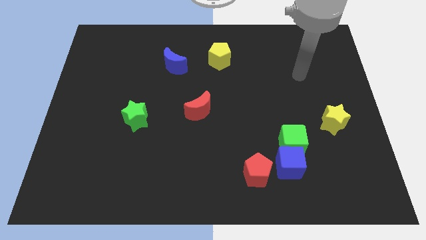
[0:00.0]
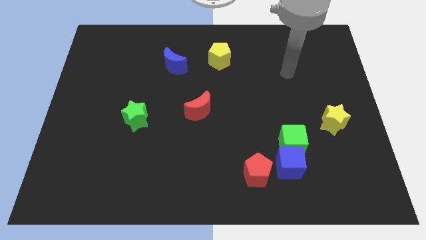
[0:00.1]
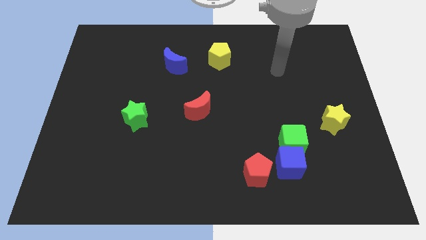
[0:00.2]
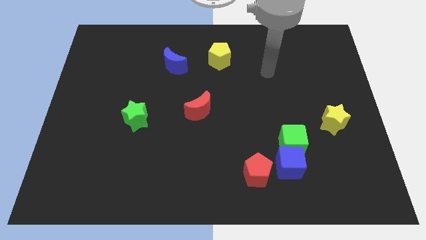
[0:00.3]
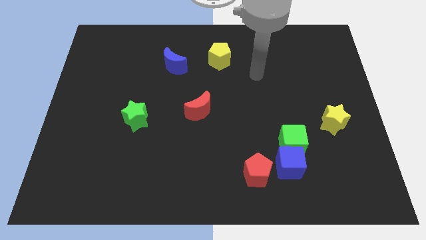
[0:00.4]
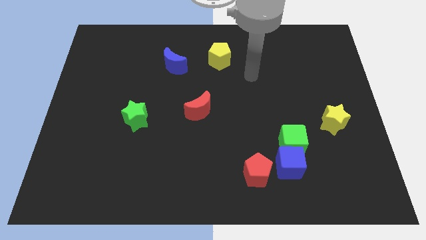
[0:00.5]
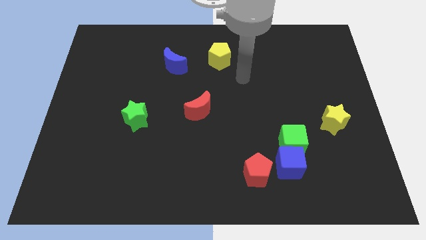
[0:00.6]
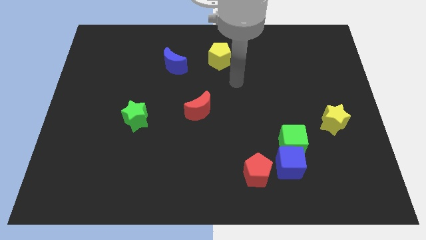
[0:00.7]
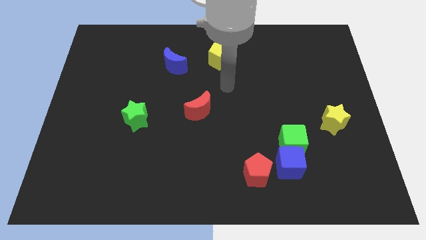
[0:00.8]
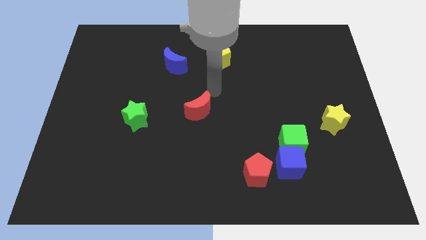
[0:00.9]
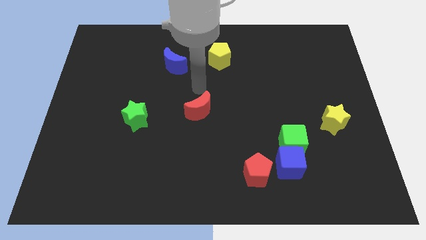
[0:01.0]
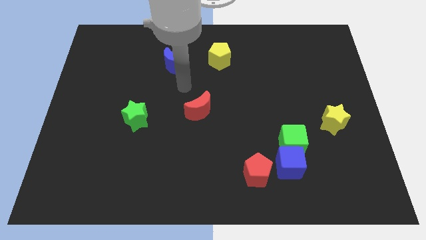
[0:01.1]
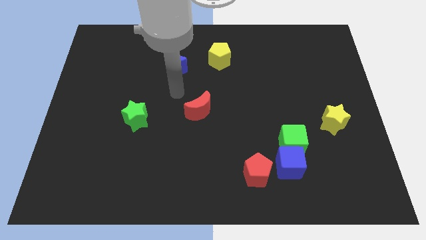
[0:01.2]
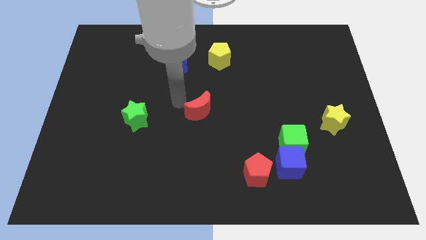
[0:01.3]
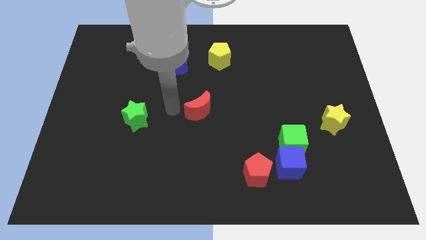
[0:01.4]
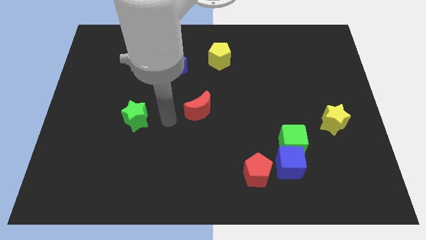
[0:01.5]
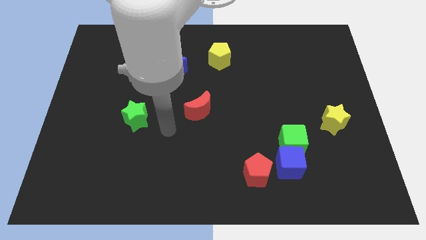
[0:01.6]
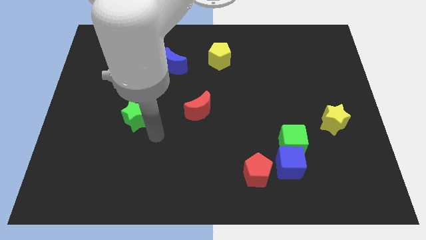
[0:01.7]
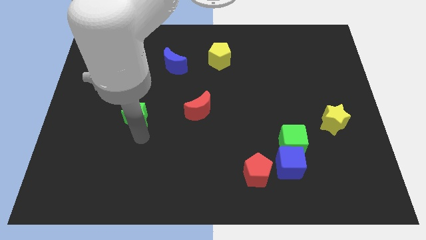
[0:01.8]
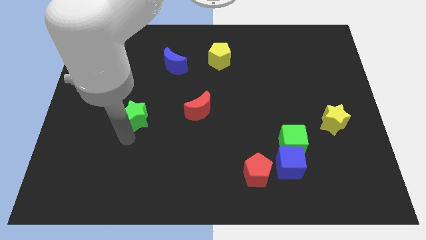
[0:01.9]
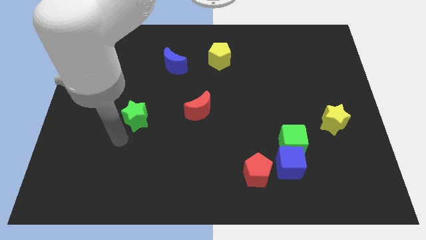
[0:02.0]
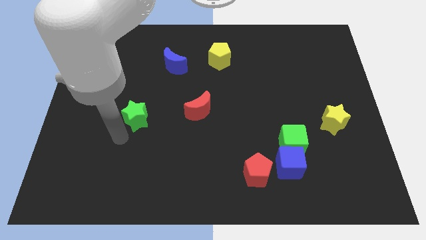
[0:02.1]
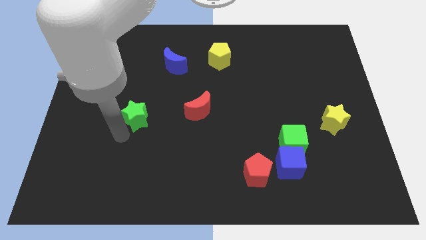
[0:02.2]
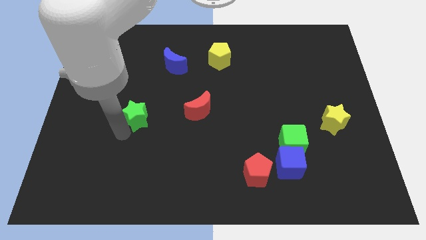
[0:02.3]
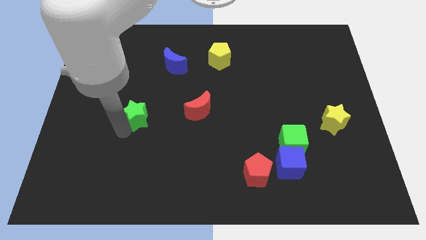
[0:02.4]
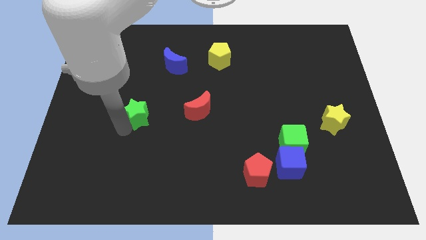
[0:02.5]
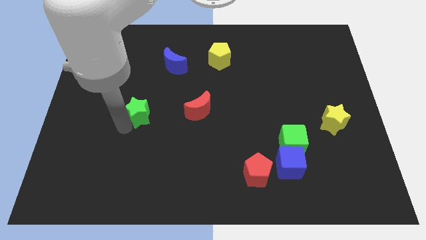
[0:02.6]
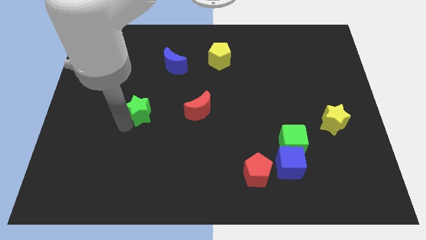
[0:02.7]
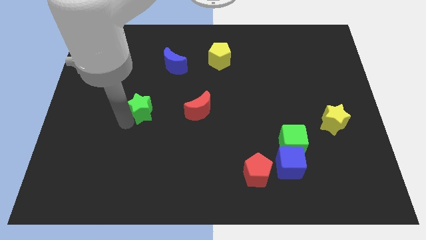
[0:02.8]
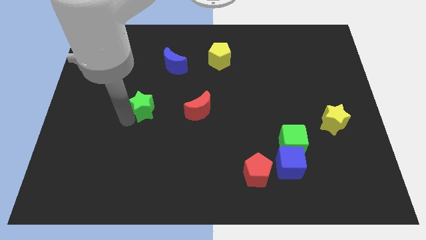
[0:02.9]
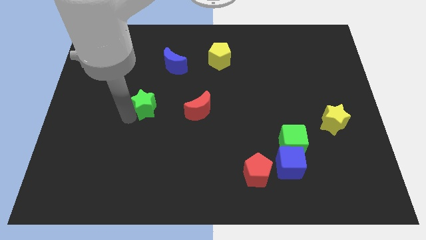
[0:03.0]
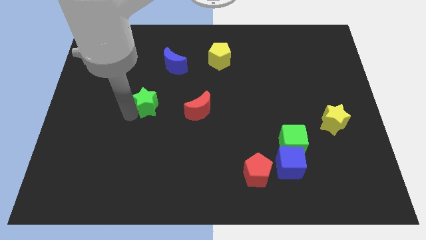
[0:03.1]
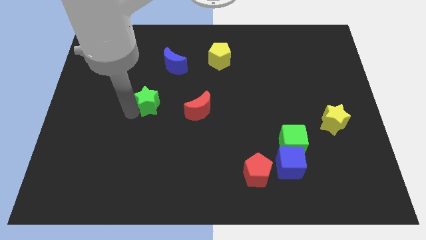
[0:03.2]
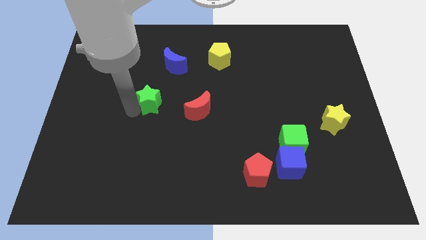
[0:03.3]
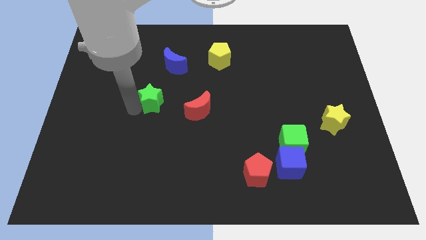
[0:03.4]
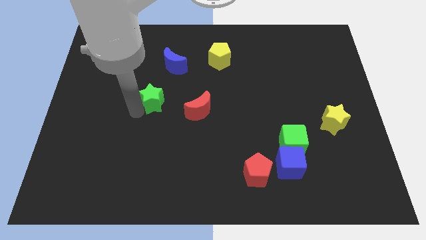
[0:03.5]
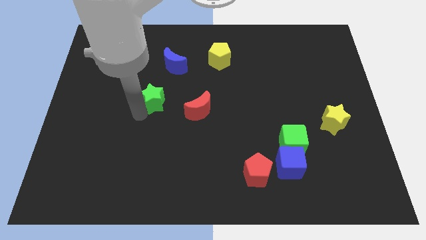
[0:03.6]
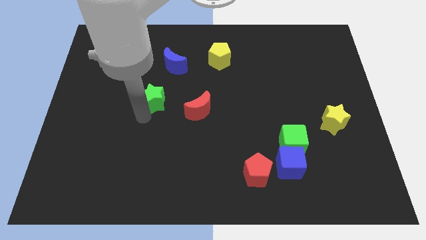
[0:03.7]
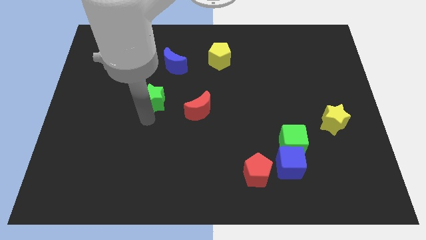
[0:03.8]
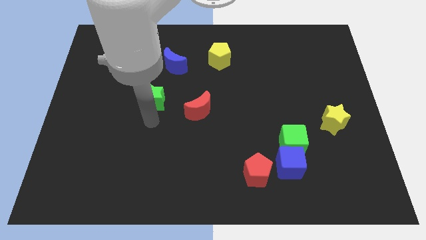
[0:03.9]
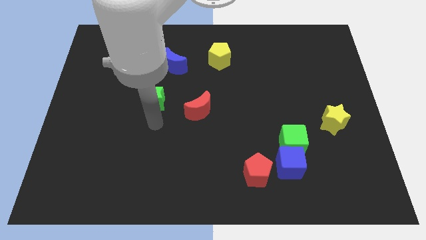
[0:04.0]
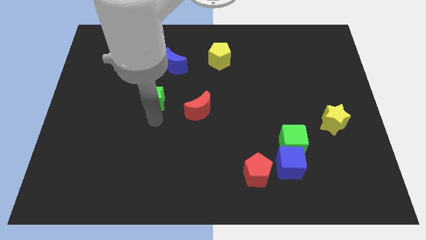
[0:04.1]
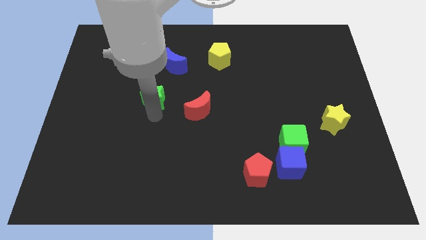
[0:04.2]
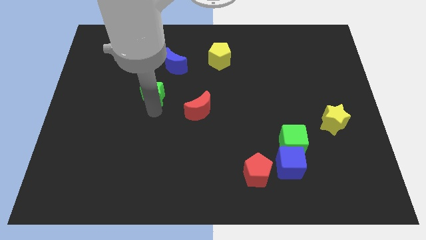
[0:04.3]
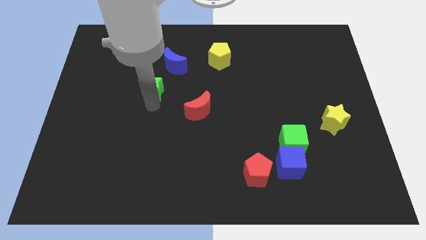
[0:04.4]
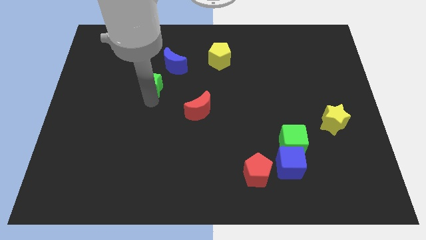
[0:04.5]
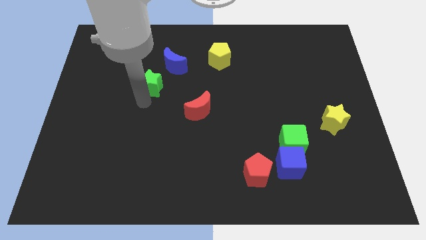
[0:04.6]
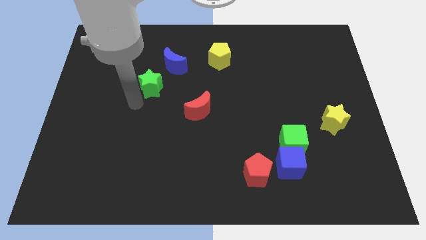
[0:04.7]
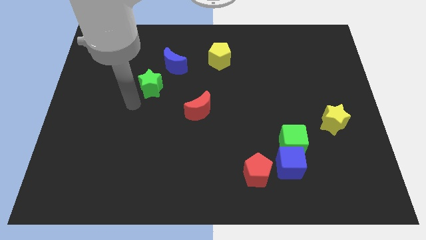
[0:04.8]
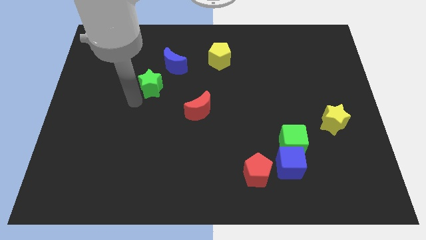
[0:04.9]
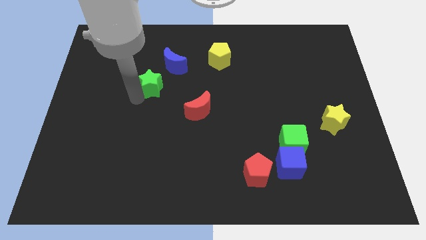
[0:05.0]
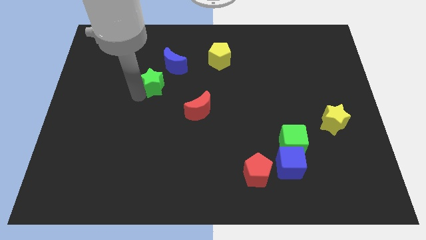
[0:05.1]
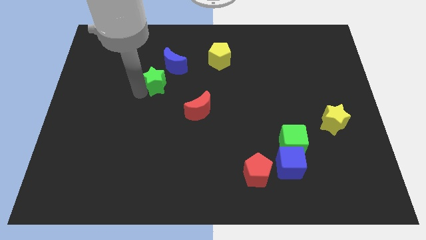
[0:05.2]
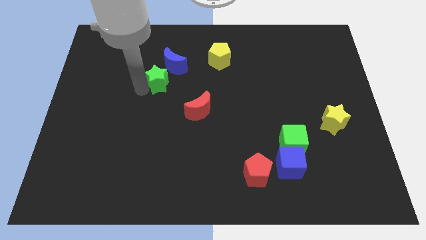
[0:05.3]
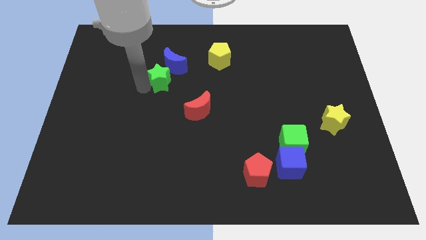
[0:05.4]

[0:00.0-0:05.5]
push the green star close to the blue moon

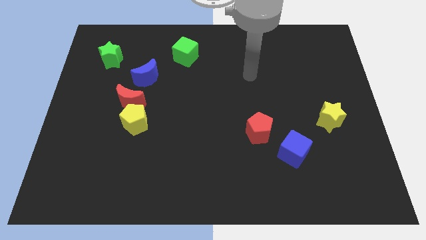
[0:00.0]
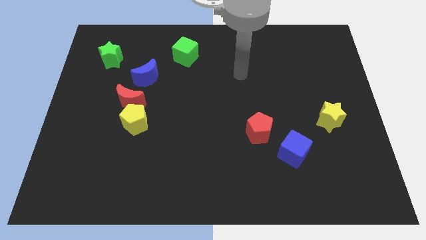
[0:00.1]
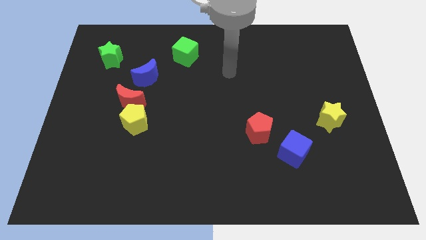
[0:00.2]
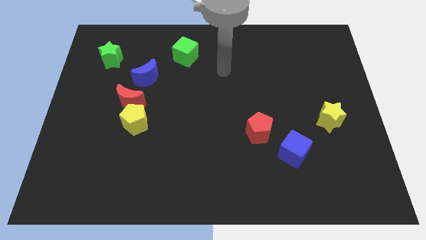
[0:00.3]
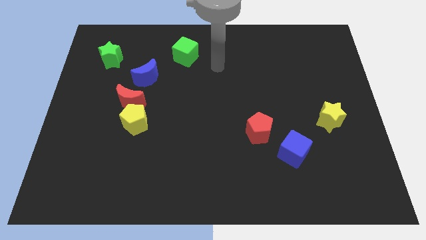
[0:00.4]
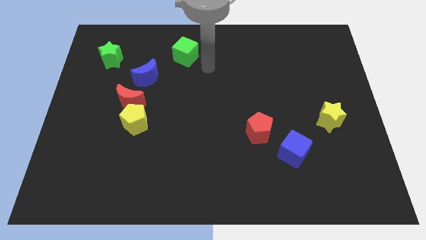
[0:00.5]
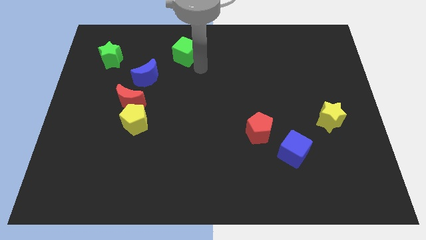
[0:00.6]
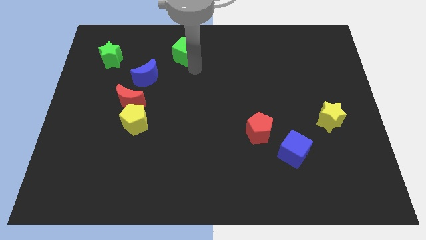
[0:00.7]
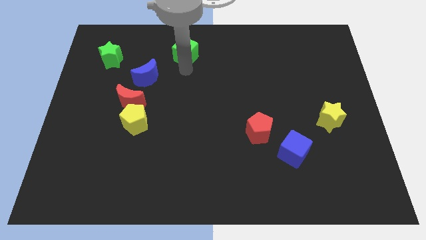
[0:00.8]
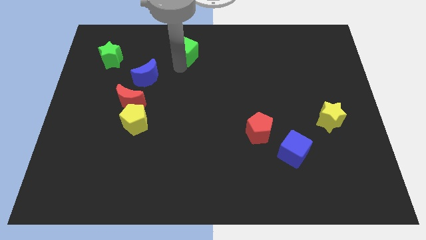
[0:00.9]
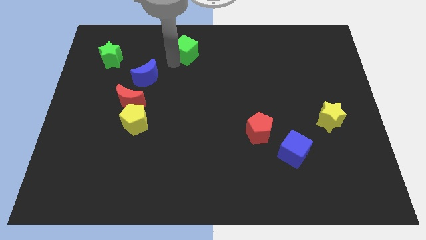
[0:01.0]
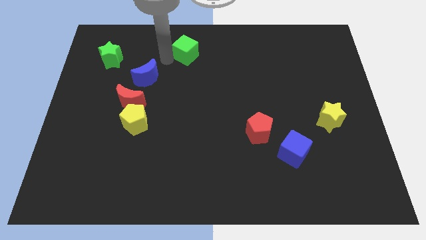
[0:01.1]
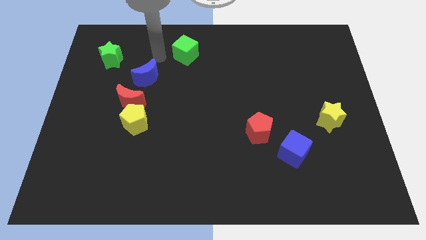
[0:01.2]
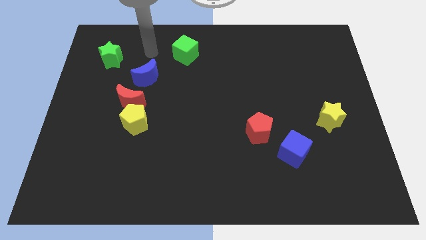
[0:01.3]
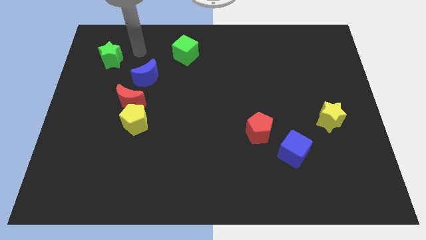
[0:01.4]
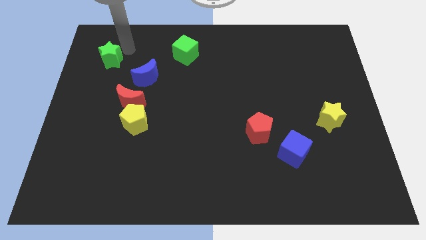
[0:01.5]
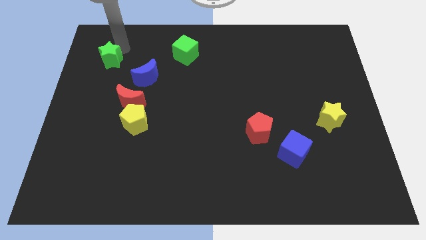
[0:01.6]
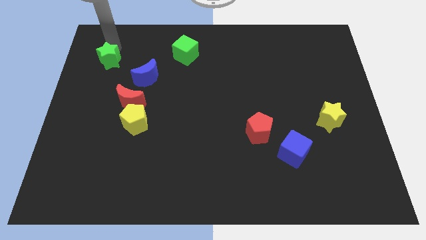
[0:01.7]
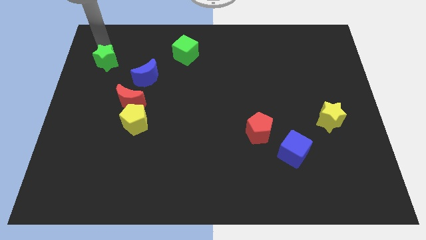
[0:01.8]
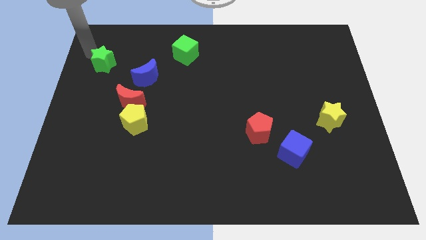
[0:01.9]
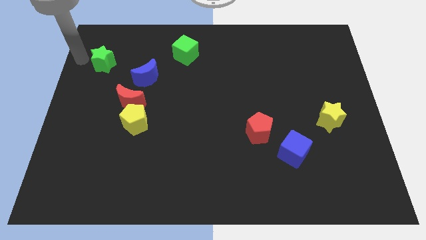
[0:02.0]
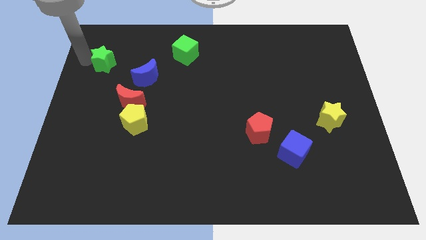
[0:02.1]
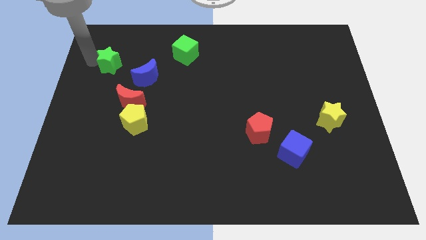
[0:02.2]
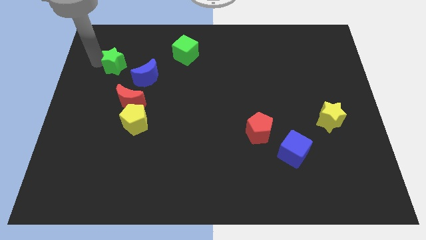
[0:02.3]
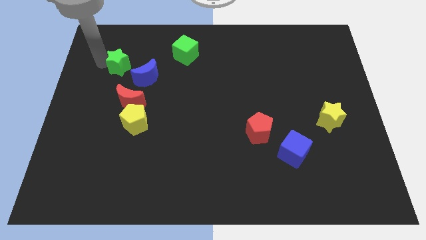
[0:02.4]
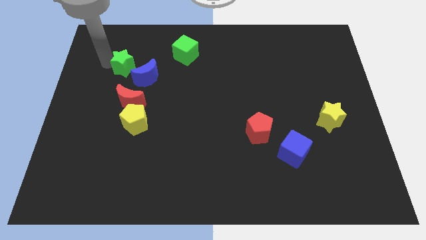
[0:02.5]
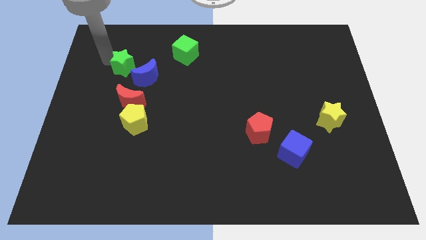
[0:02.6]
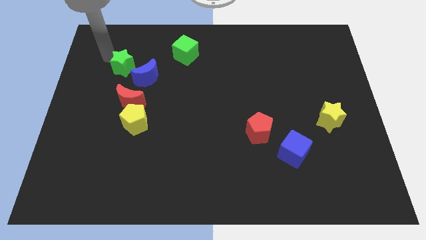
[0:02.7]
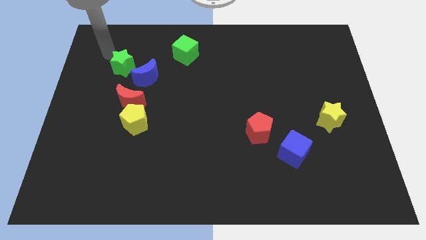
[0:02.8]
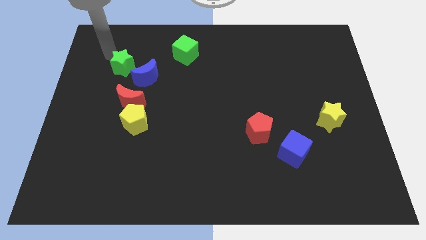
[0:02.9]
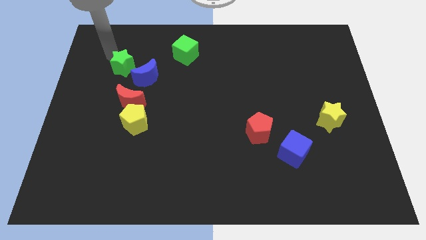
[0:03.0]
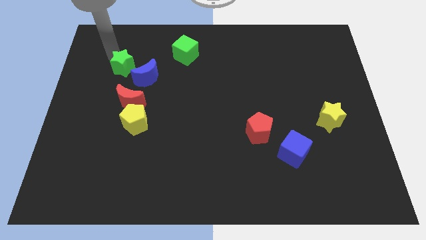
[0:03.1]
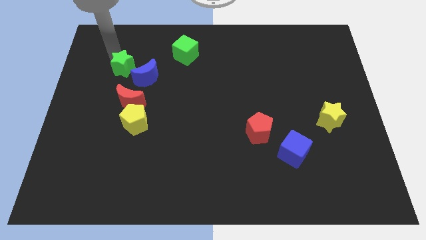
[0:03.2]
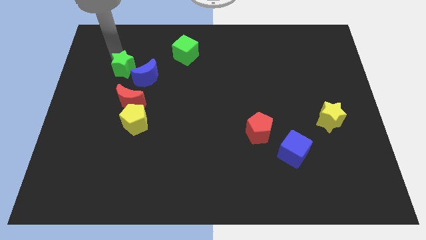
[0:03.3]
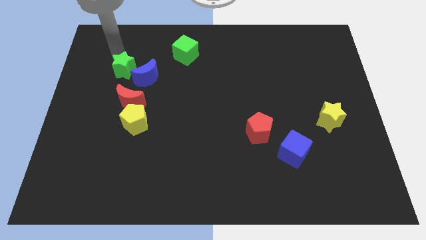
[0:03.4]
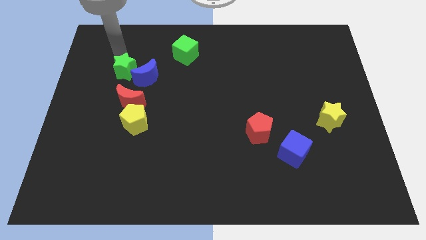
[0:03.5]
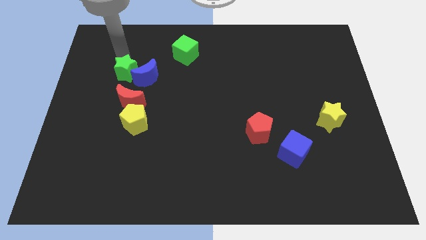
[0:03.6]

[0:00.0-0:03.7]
move the green star to the blue moon
